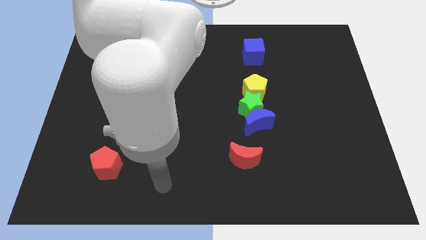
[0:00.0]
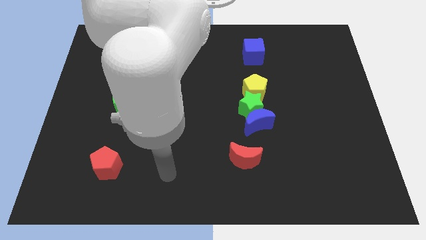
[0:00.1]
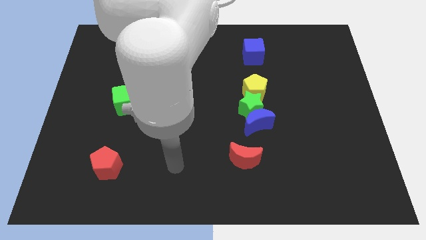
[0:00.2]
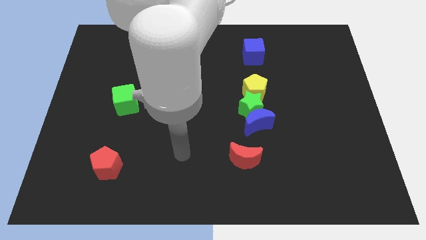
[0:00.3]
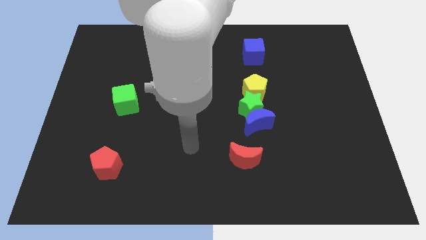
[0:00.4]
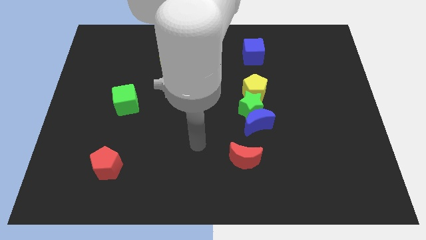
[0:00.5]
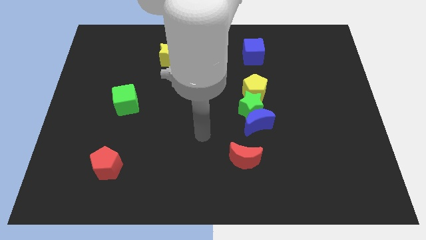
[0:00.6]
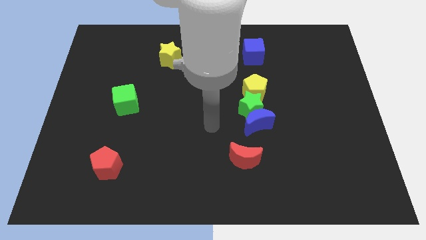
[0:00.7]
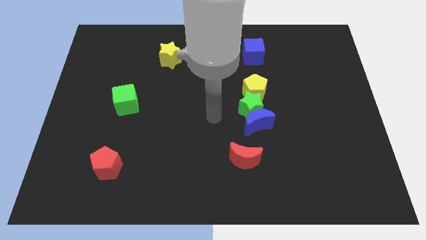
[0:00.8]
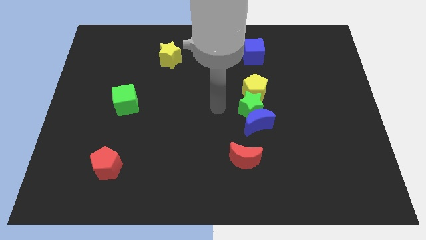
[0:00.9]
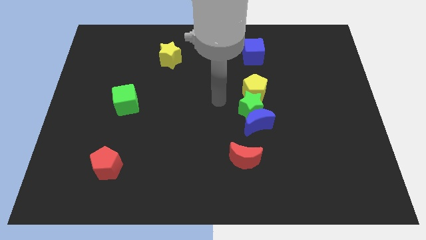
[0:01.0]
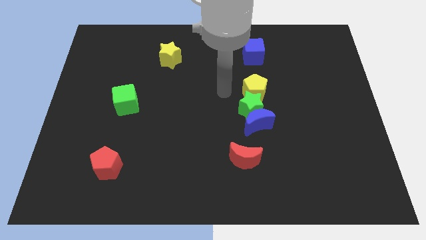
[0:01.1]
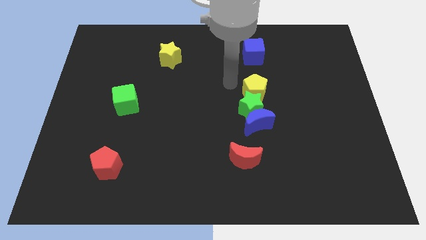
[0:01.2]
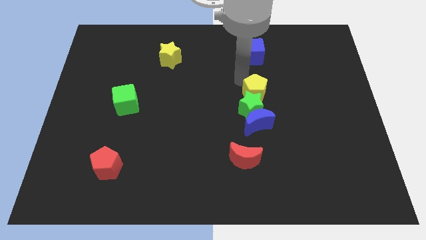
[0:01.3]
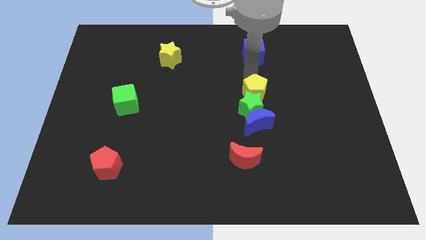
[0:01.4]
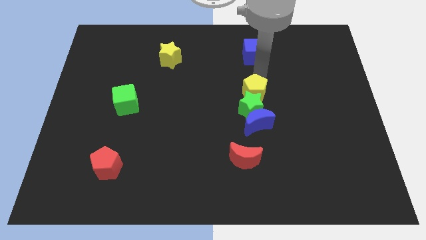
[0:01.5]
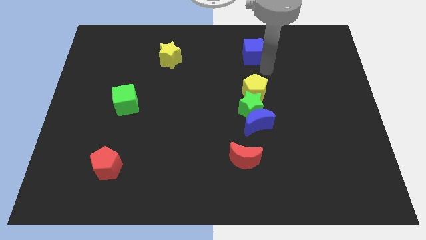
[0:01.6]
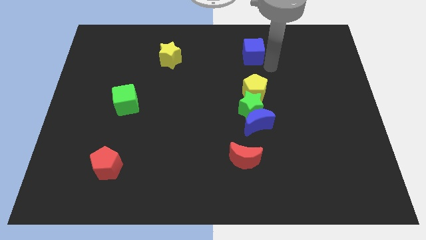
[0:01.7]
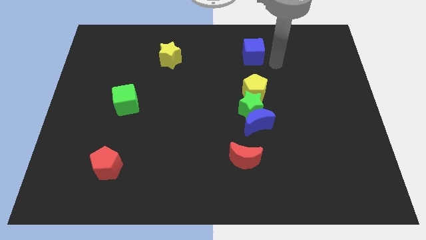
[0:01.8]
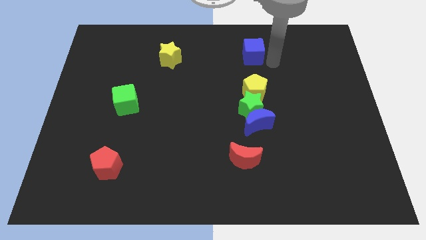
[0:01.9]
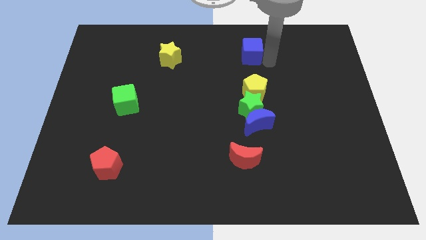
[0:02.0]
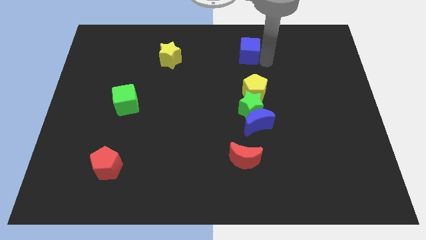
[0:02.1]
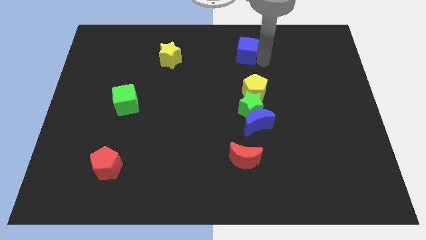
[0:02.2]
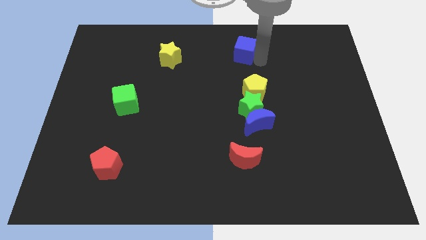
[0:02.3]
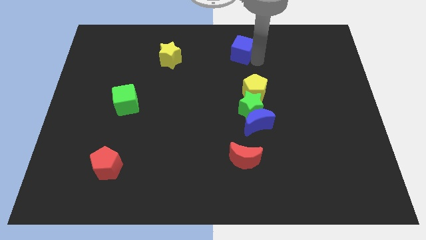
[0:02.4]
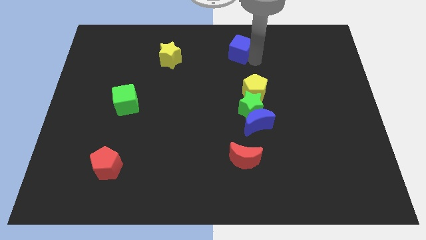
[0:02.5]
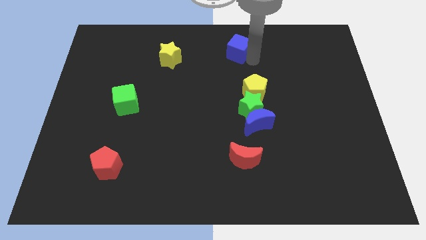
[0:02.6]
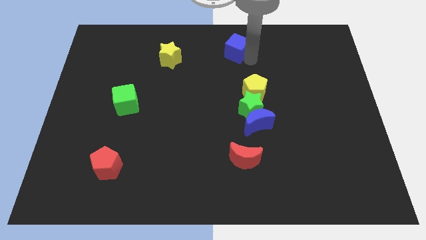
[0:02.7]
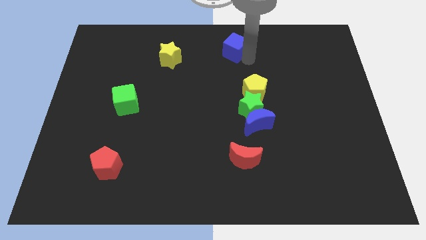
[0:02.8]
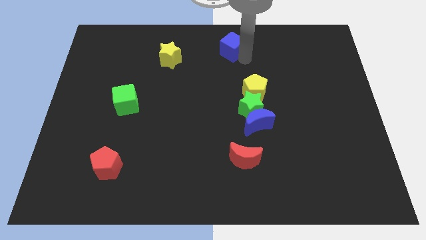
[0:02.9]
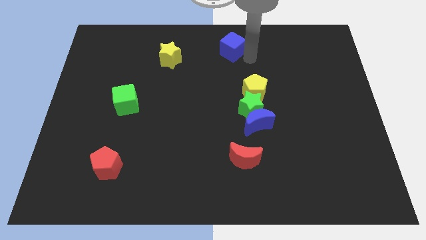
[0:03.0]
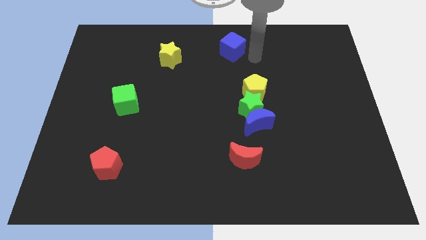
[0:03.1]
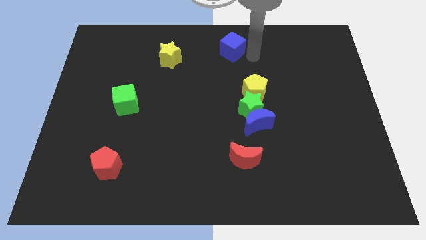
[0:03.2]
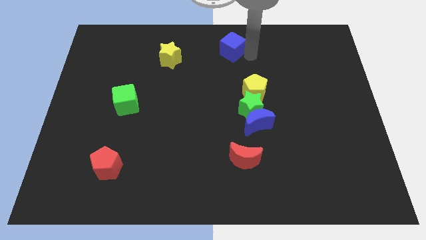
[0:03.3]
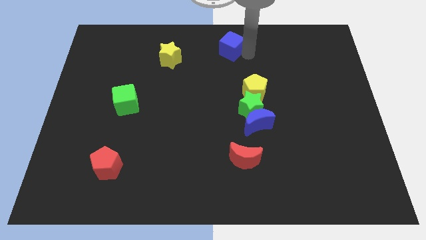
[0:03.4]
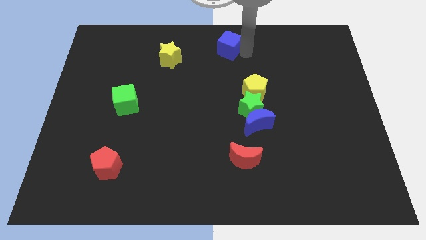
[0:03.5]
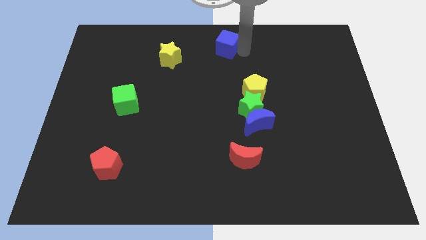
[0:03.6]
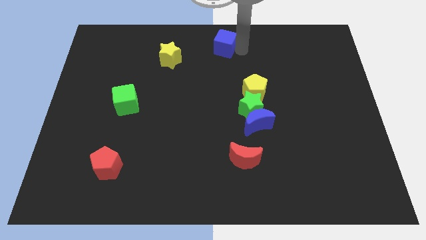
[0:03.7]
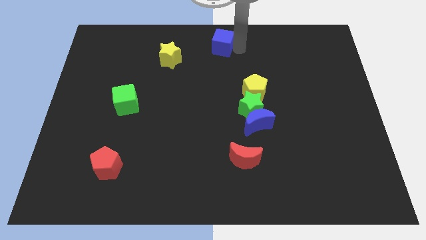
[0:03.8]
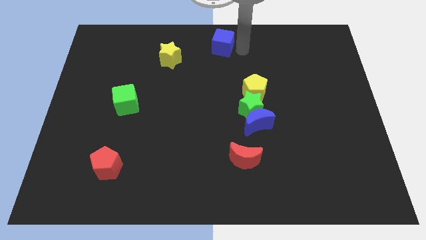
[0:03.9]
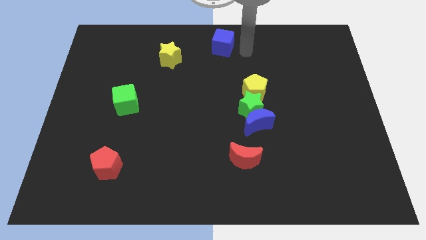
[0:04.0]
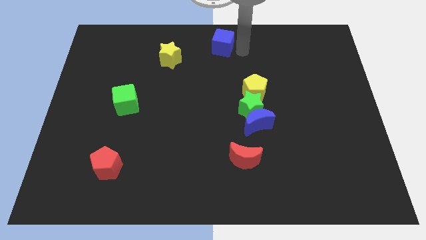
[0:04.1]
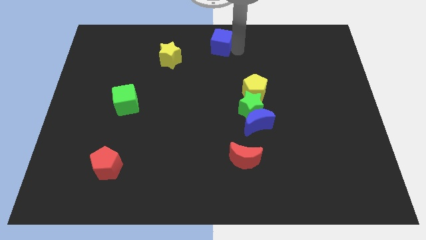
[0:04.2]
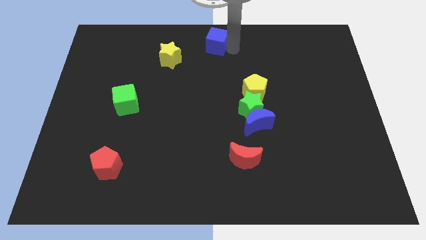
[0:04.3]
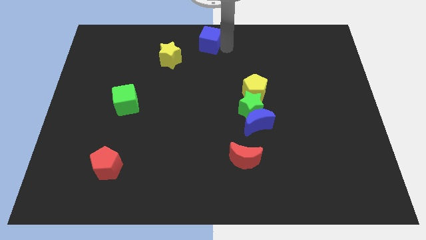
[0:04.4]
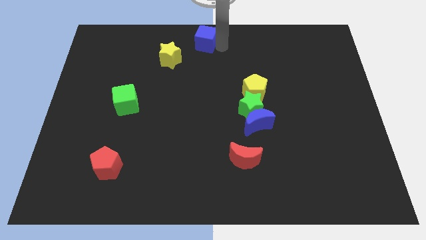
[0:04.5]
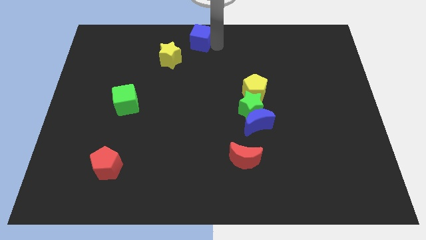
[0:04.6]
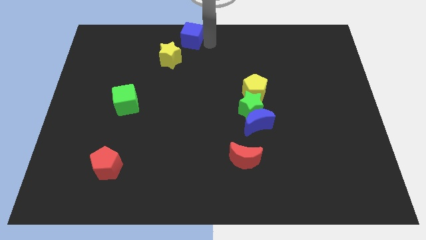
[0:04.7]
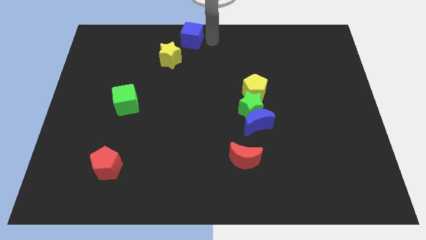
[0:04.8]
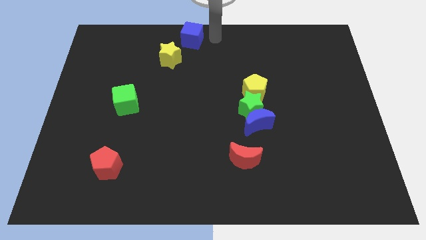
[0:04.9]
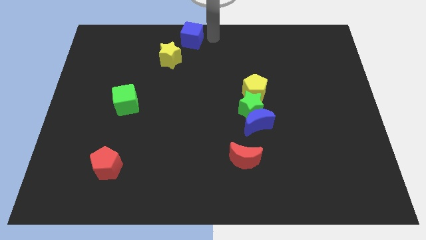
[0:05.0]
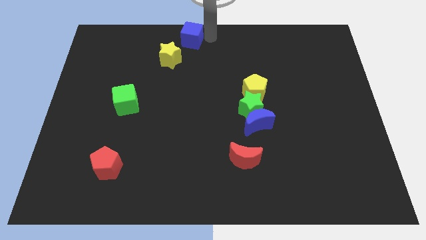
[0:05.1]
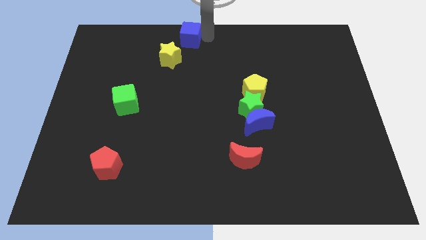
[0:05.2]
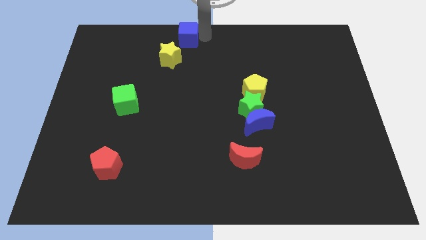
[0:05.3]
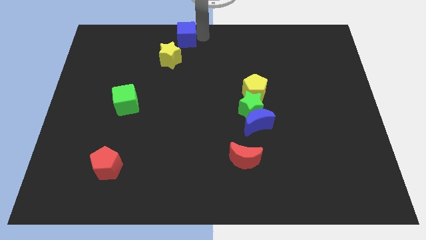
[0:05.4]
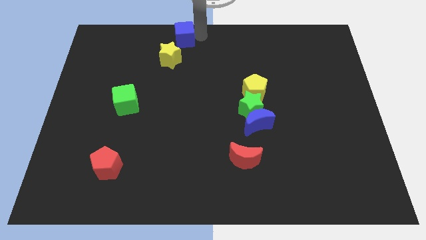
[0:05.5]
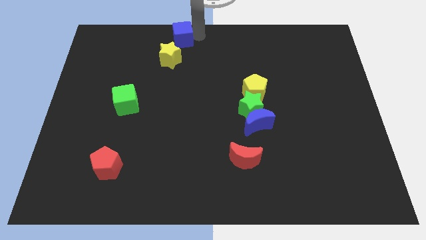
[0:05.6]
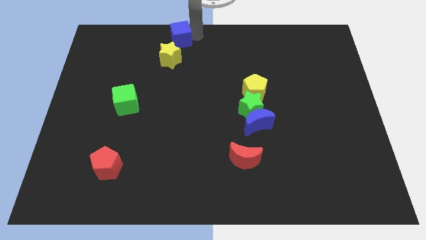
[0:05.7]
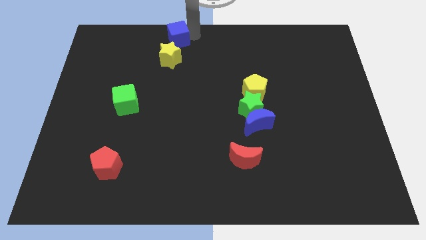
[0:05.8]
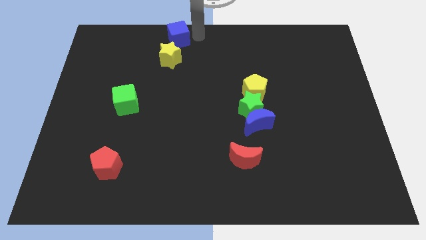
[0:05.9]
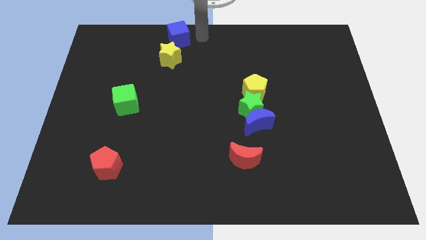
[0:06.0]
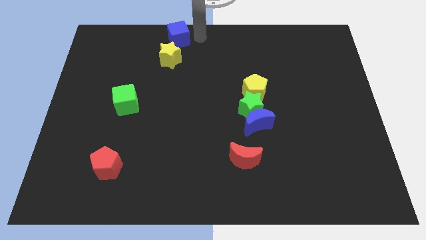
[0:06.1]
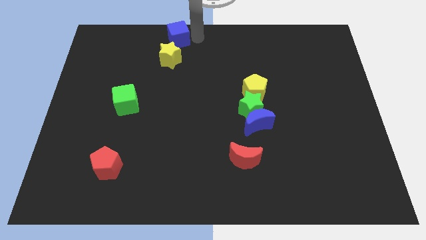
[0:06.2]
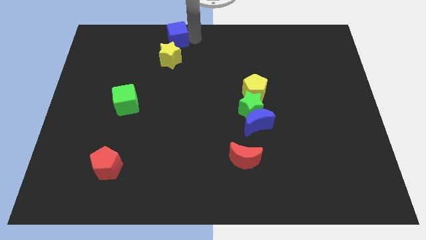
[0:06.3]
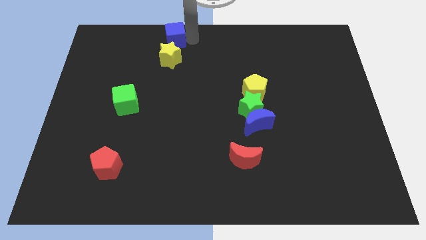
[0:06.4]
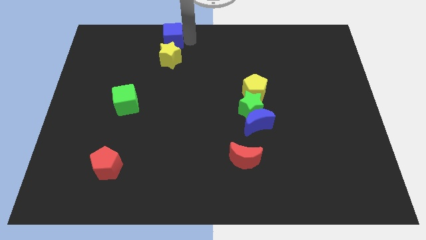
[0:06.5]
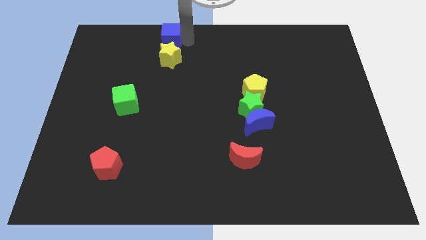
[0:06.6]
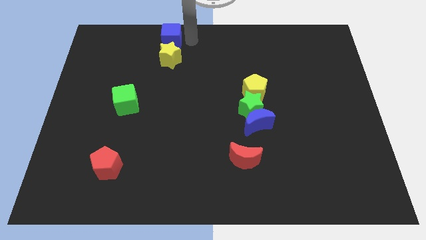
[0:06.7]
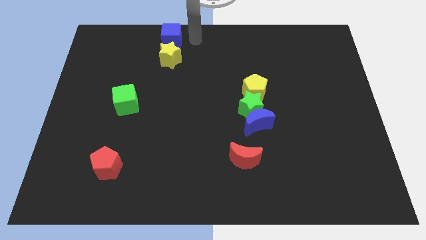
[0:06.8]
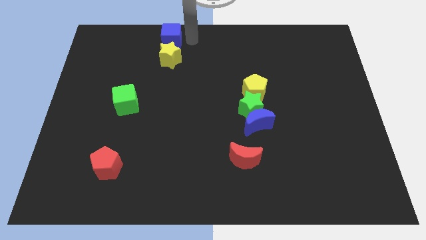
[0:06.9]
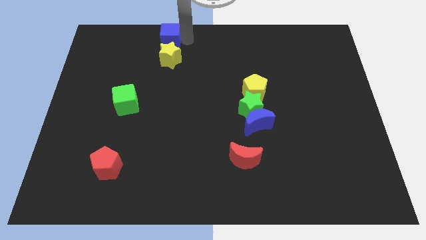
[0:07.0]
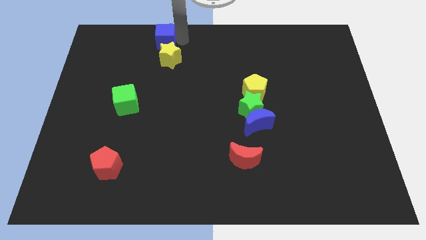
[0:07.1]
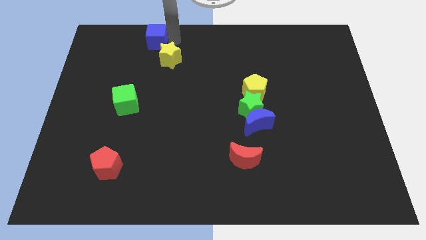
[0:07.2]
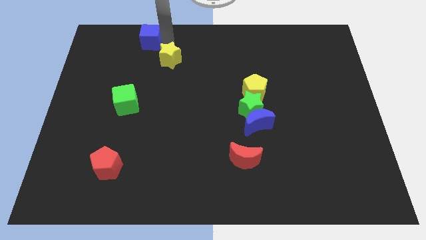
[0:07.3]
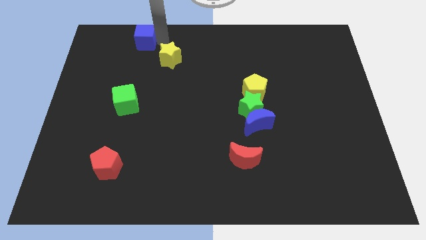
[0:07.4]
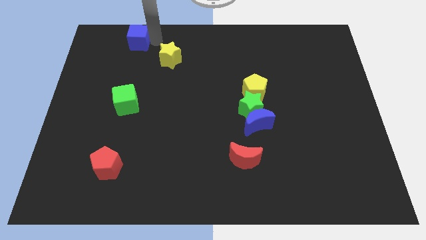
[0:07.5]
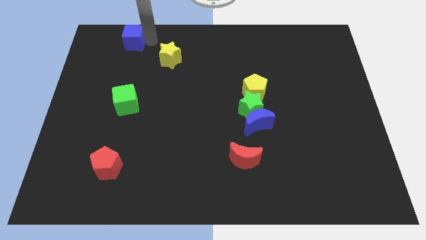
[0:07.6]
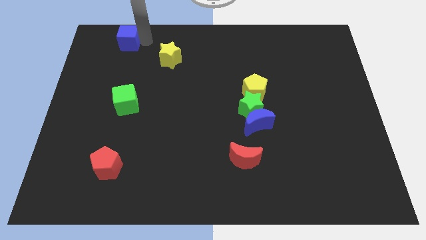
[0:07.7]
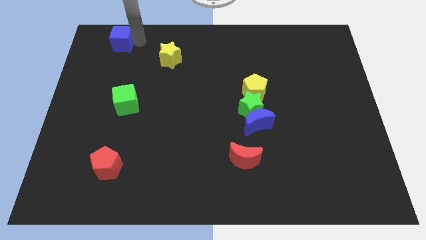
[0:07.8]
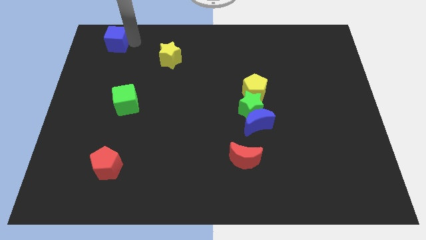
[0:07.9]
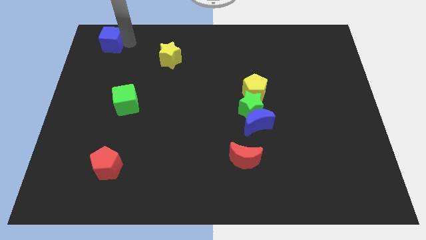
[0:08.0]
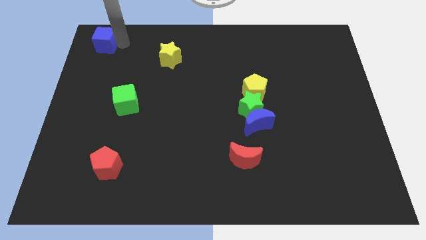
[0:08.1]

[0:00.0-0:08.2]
put the blue cube to the upper left corner
